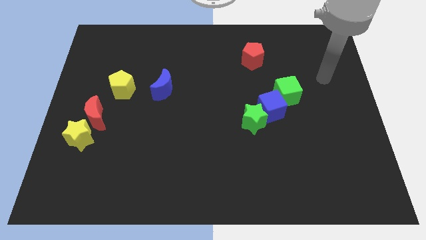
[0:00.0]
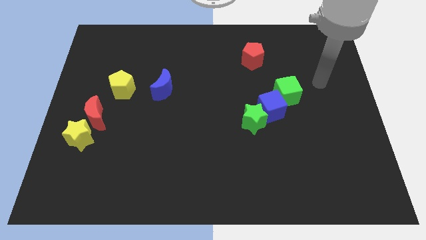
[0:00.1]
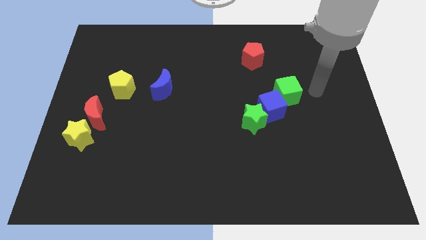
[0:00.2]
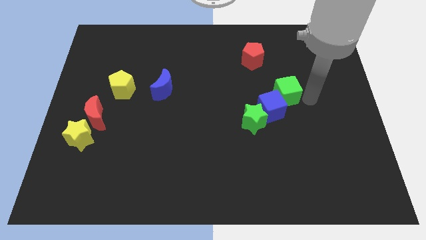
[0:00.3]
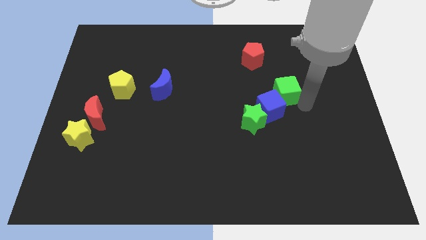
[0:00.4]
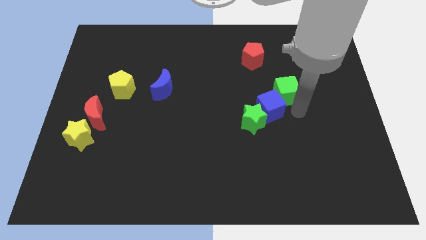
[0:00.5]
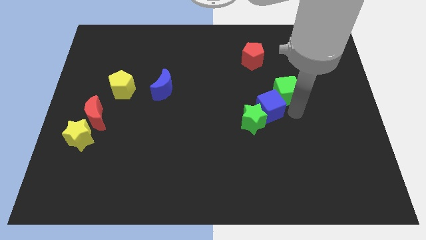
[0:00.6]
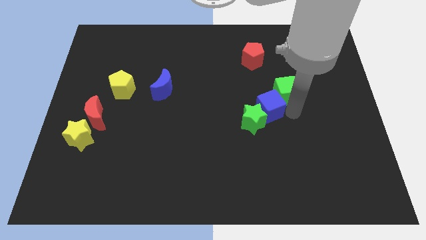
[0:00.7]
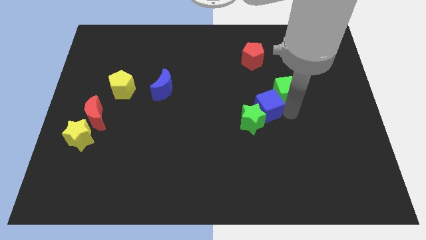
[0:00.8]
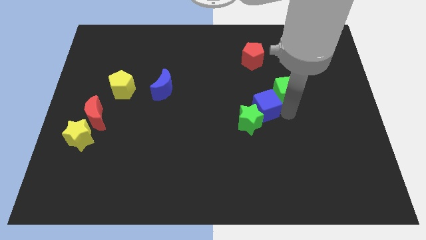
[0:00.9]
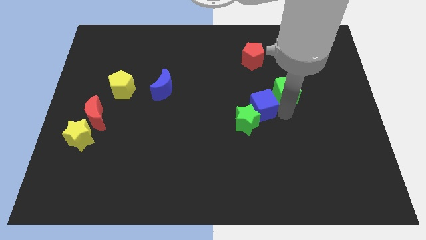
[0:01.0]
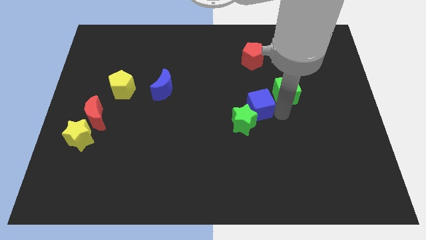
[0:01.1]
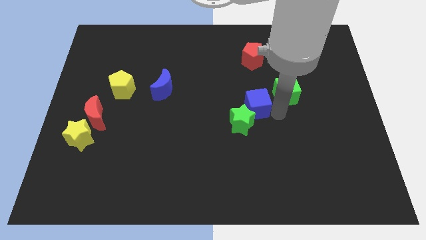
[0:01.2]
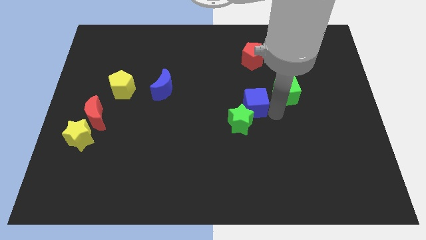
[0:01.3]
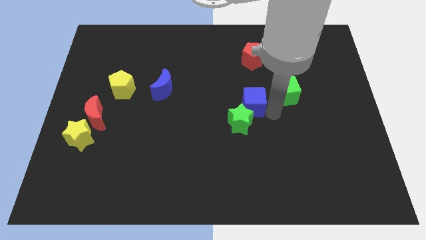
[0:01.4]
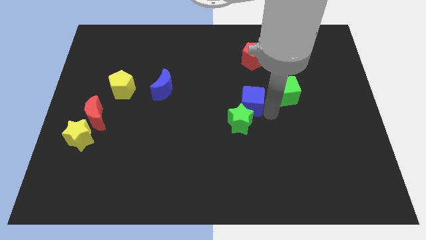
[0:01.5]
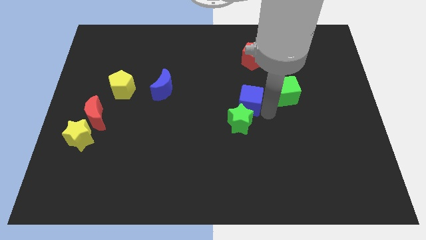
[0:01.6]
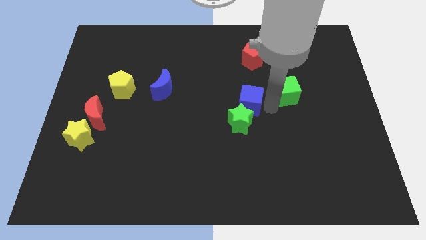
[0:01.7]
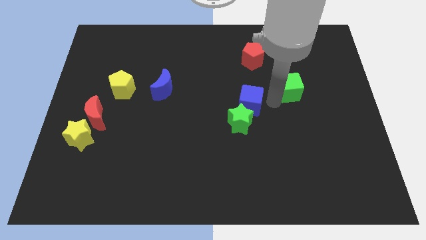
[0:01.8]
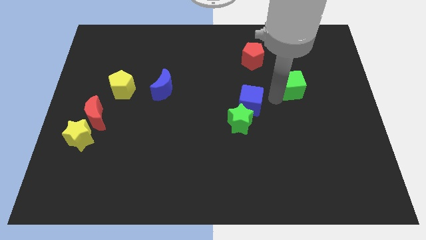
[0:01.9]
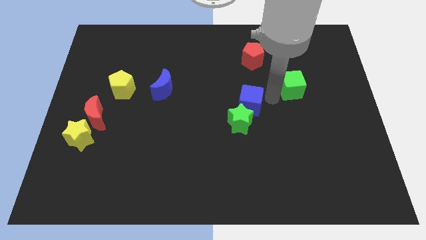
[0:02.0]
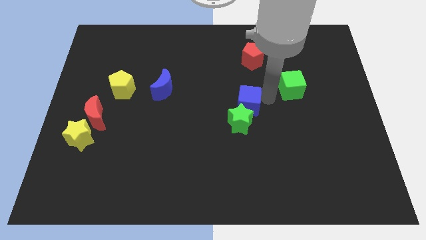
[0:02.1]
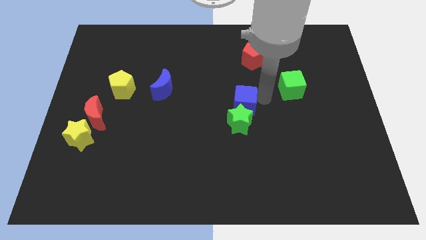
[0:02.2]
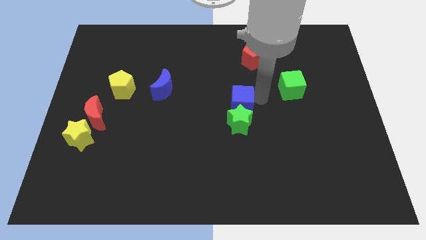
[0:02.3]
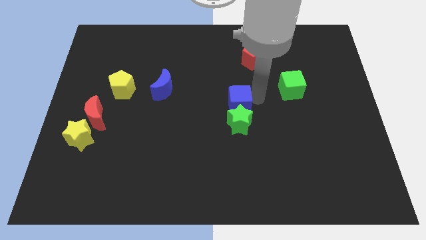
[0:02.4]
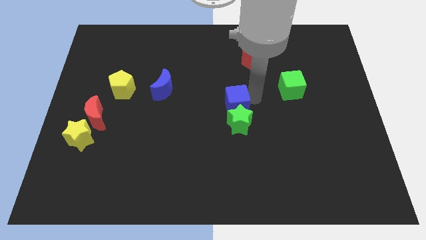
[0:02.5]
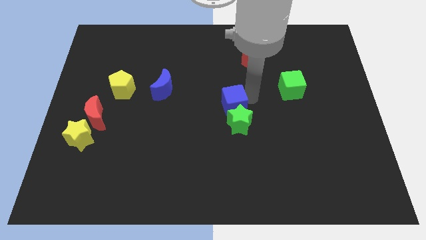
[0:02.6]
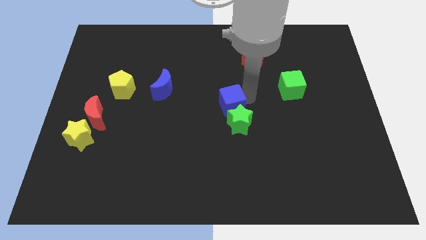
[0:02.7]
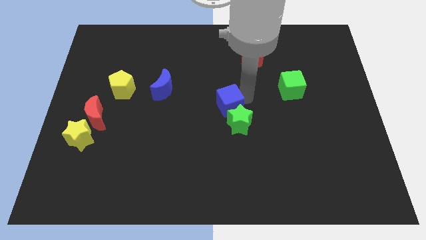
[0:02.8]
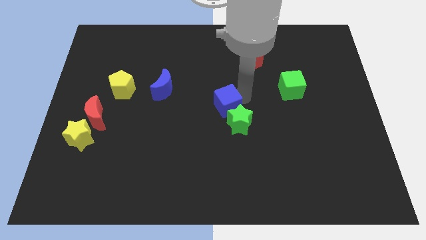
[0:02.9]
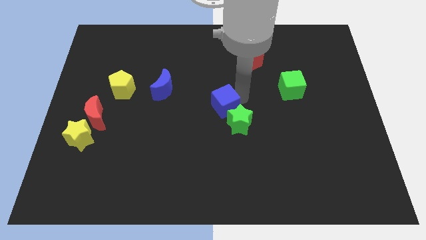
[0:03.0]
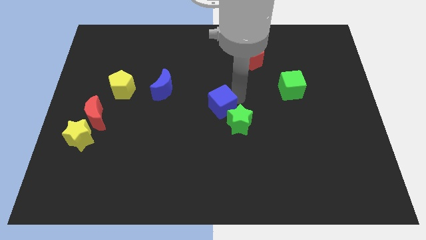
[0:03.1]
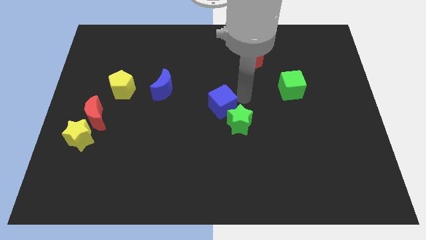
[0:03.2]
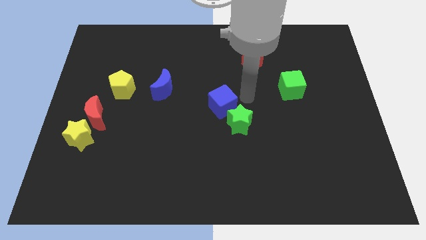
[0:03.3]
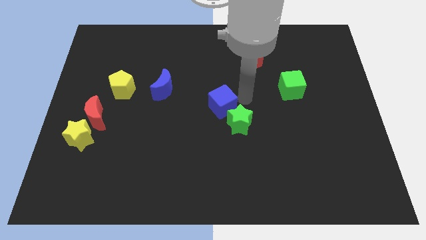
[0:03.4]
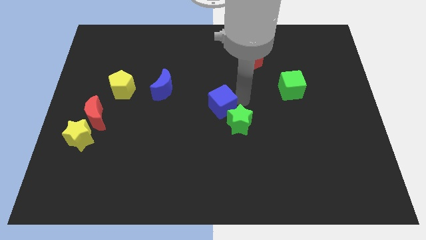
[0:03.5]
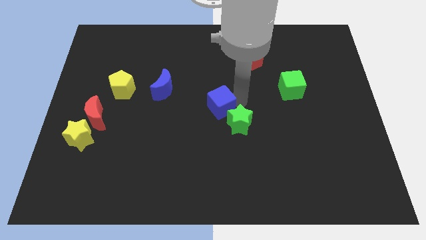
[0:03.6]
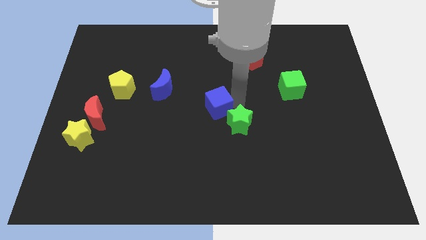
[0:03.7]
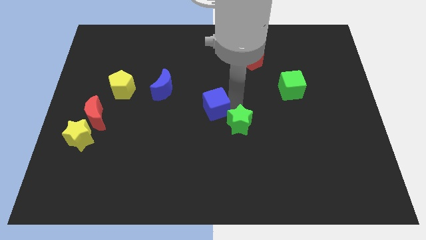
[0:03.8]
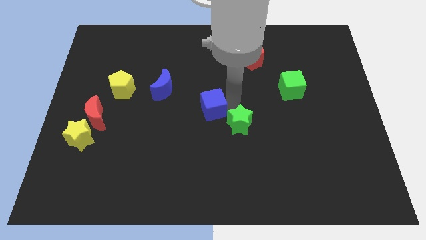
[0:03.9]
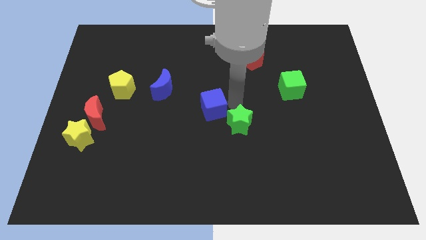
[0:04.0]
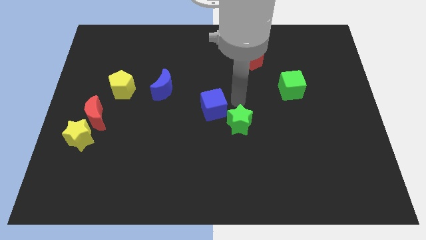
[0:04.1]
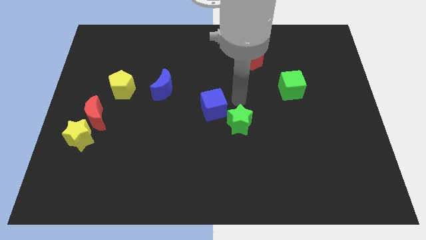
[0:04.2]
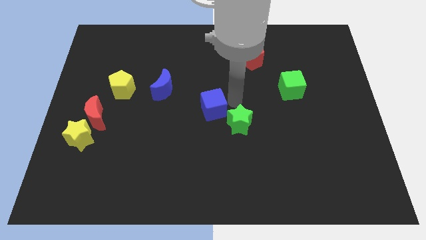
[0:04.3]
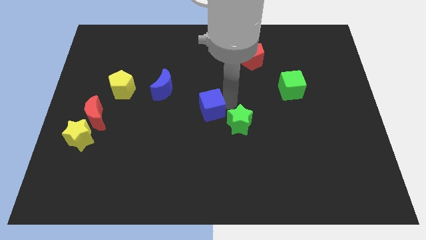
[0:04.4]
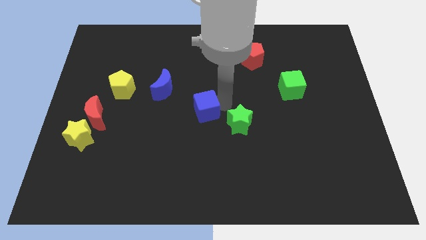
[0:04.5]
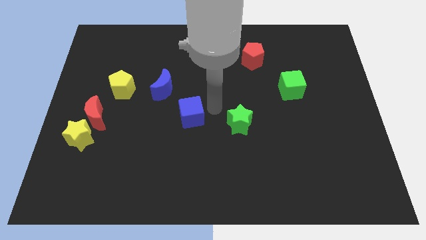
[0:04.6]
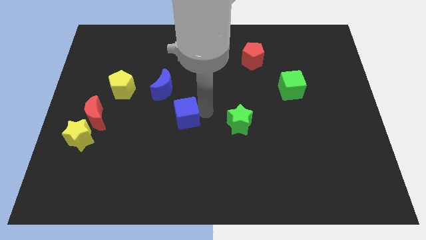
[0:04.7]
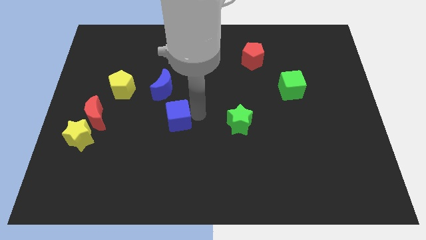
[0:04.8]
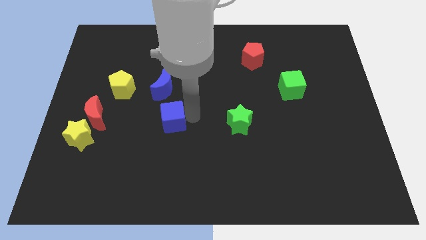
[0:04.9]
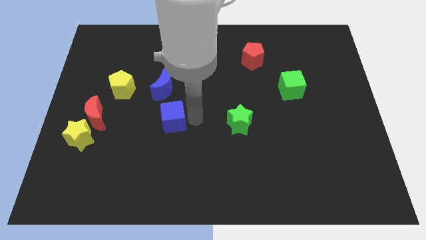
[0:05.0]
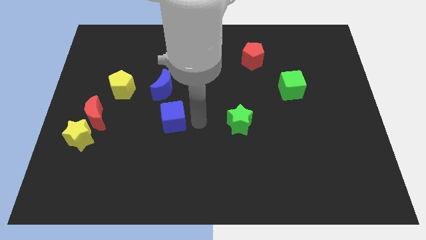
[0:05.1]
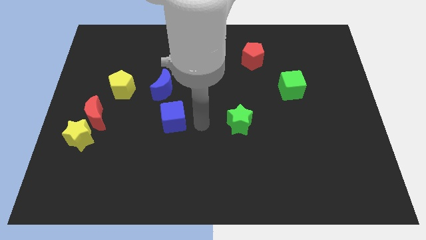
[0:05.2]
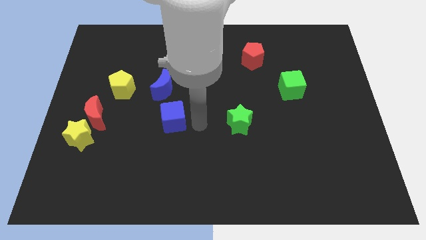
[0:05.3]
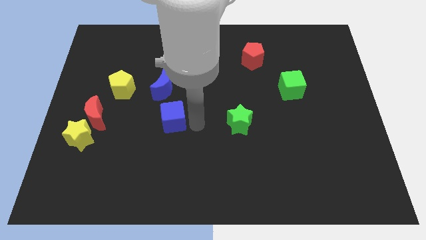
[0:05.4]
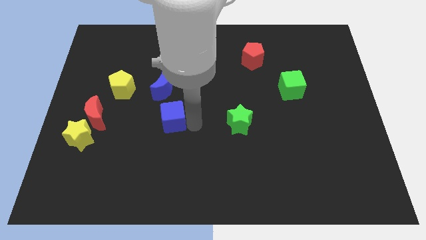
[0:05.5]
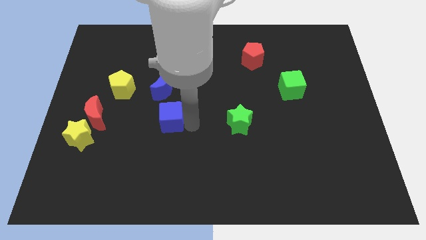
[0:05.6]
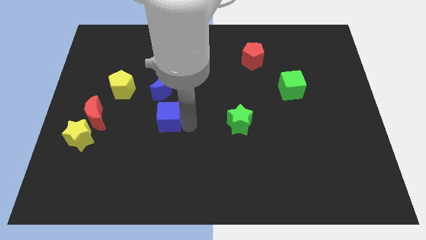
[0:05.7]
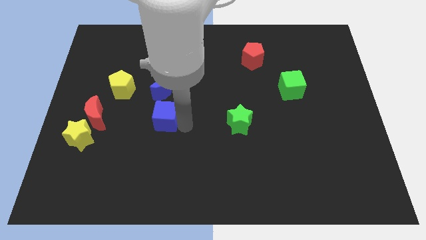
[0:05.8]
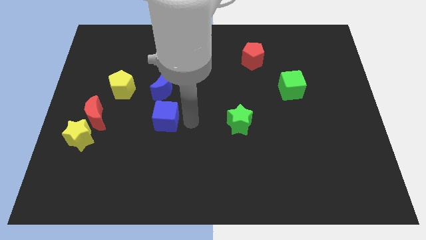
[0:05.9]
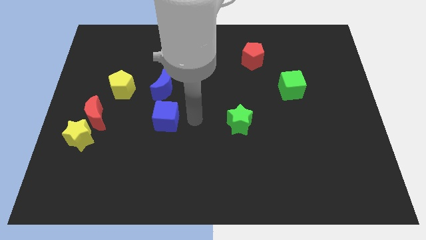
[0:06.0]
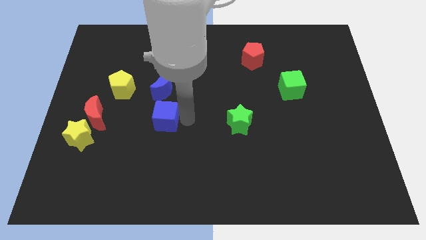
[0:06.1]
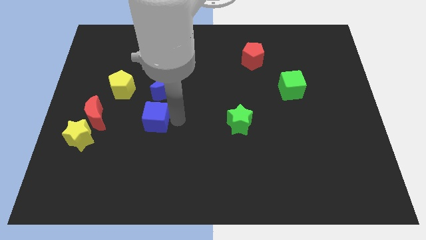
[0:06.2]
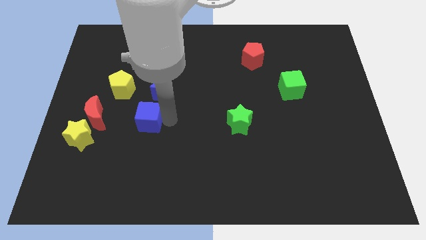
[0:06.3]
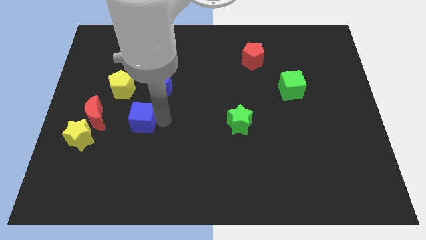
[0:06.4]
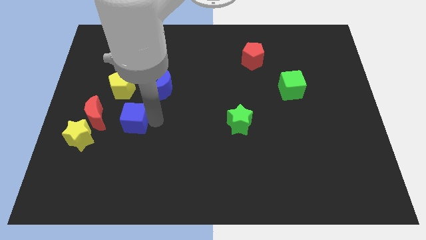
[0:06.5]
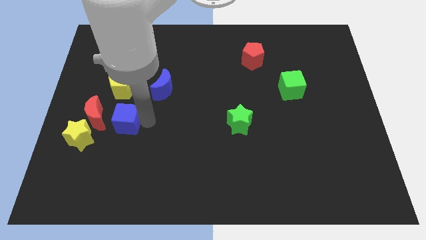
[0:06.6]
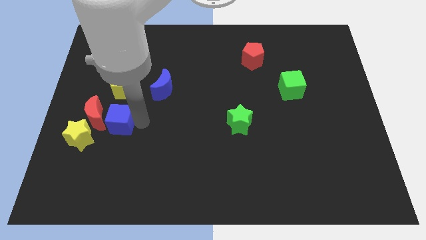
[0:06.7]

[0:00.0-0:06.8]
push the blue cube to the red moon

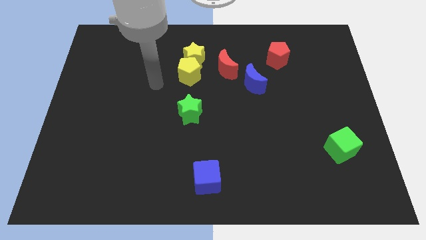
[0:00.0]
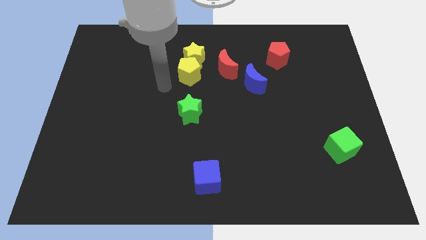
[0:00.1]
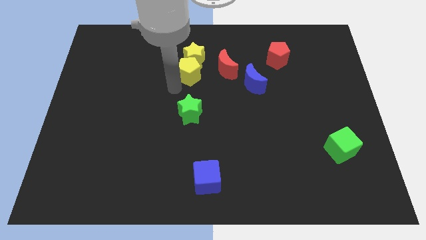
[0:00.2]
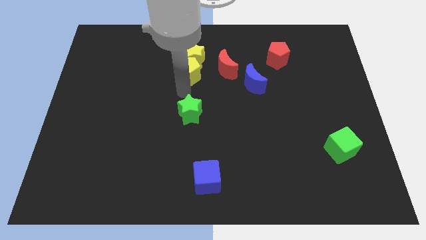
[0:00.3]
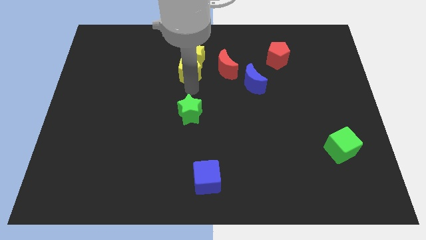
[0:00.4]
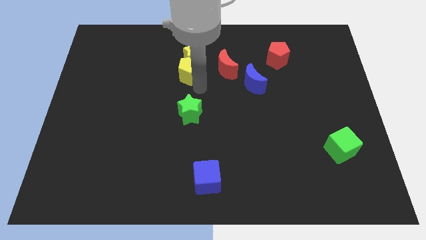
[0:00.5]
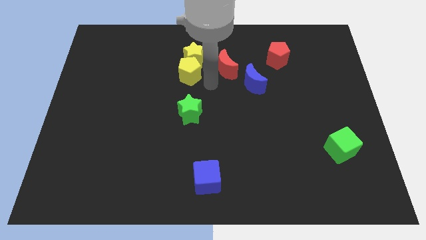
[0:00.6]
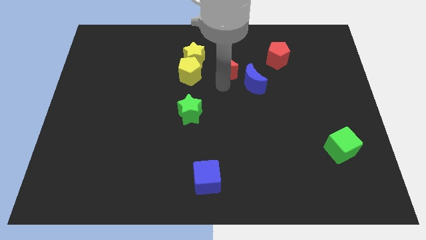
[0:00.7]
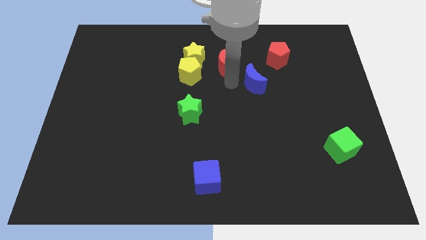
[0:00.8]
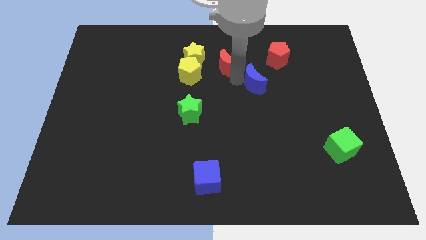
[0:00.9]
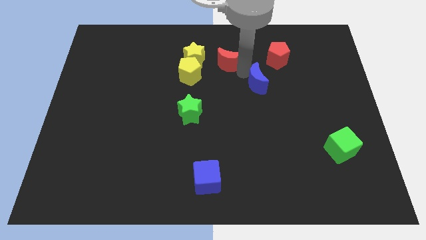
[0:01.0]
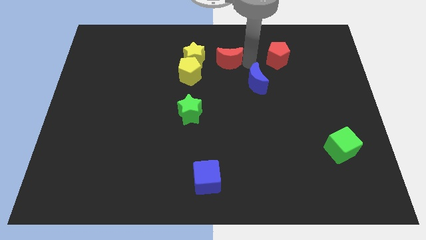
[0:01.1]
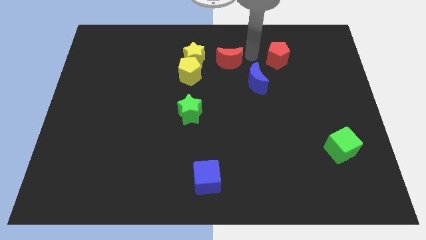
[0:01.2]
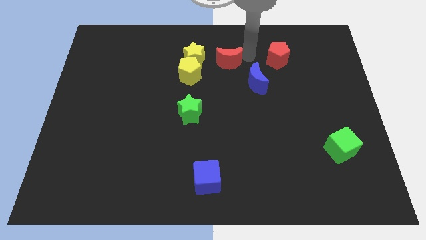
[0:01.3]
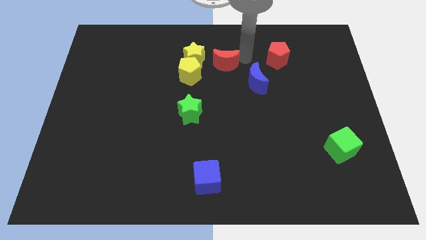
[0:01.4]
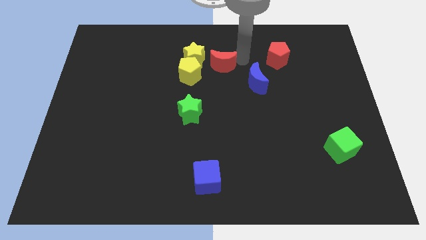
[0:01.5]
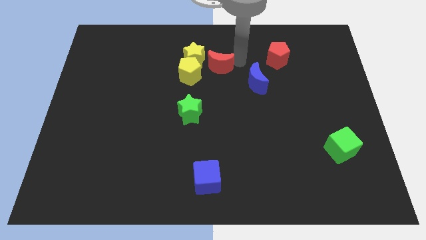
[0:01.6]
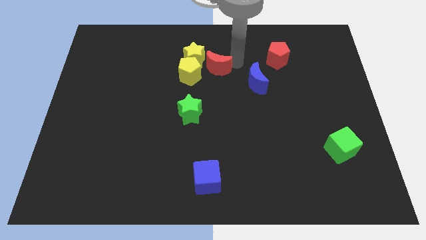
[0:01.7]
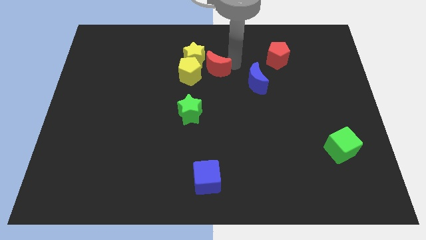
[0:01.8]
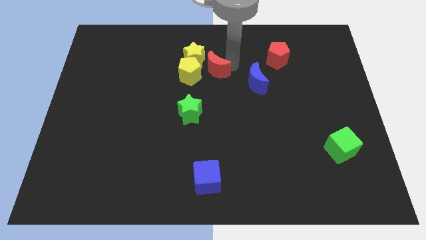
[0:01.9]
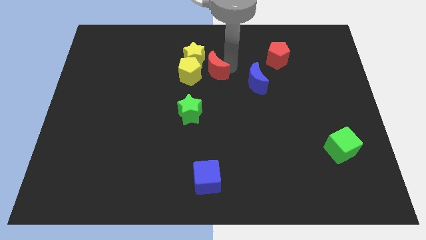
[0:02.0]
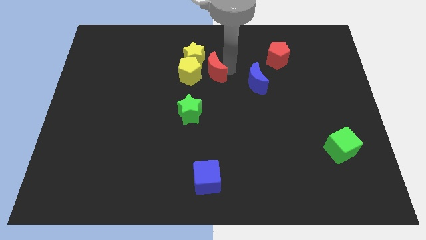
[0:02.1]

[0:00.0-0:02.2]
move the red moon towards the yellow pentagon
